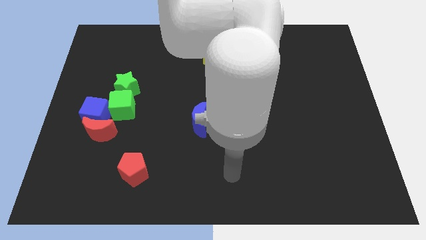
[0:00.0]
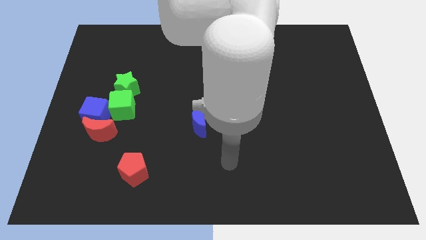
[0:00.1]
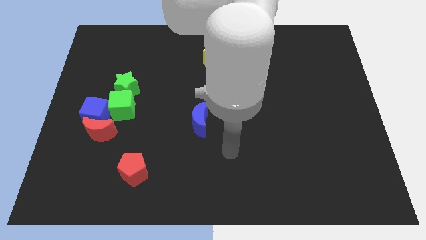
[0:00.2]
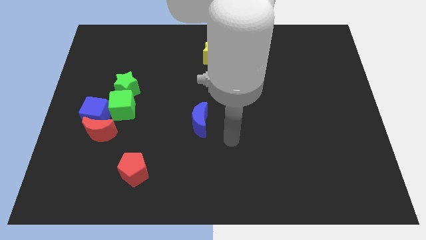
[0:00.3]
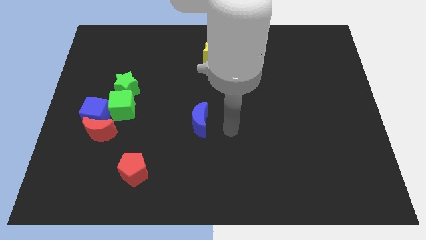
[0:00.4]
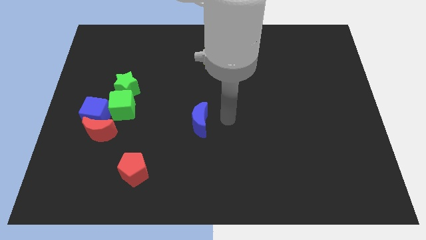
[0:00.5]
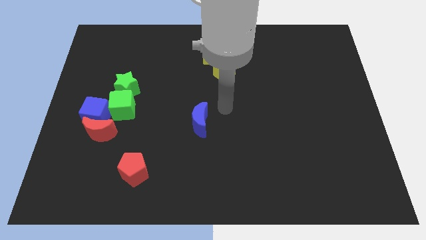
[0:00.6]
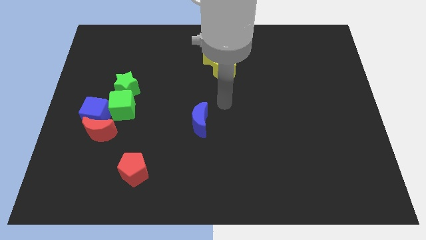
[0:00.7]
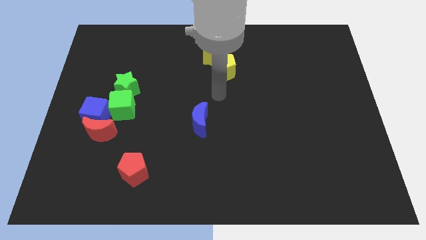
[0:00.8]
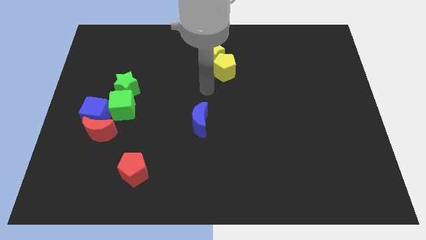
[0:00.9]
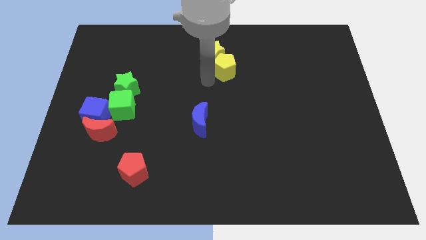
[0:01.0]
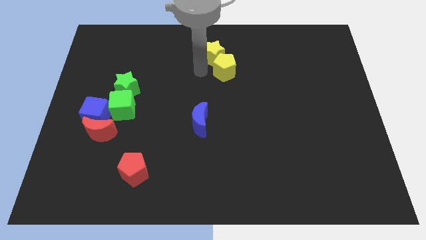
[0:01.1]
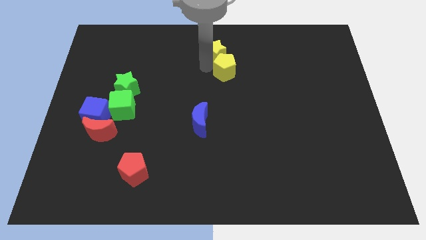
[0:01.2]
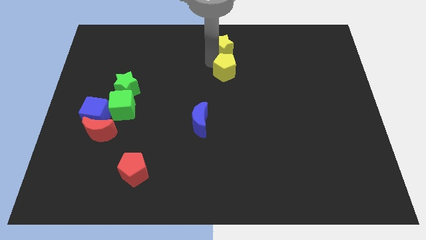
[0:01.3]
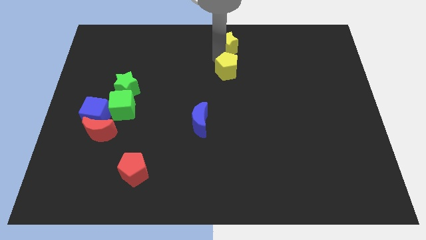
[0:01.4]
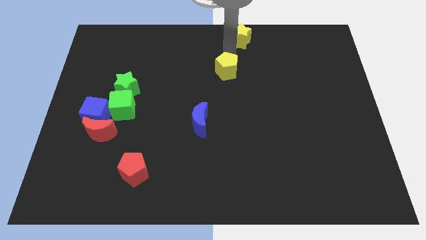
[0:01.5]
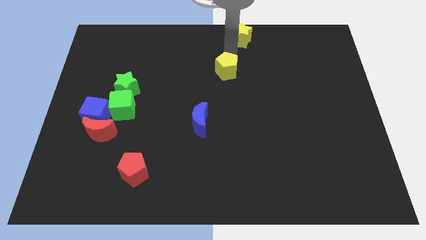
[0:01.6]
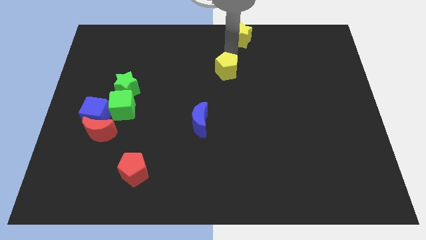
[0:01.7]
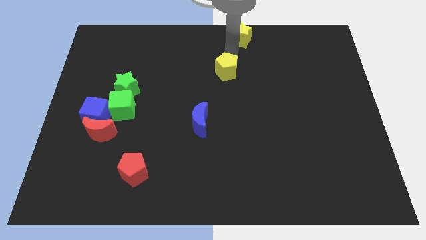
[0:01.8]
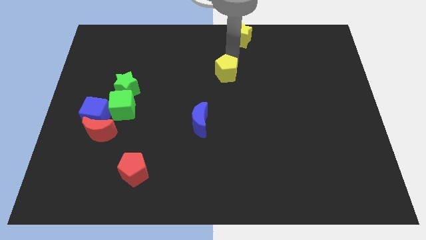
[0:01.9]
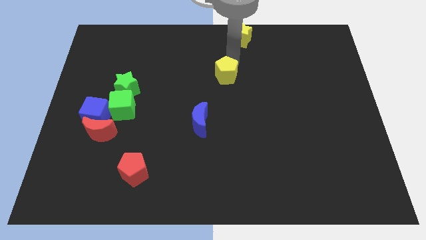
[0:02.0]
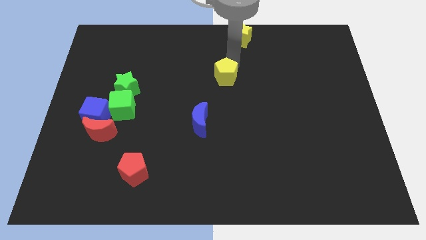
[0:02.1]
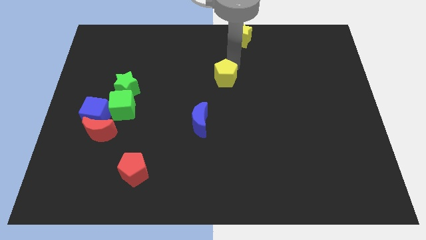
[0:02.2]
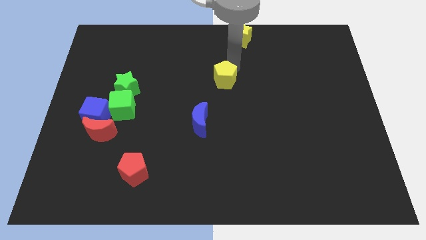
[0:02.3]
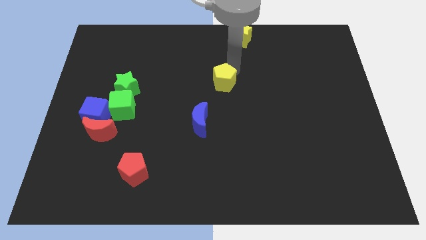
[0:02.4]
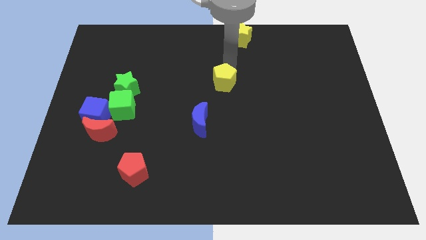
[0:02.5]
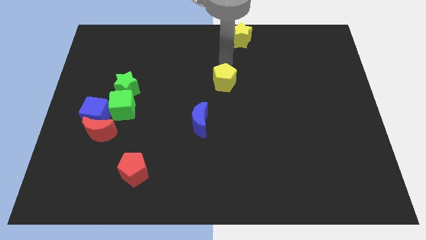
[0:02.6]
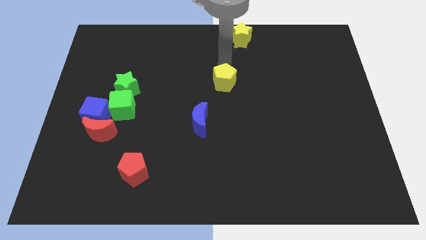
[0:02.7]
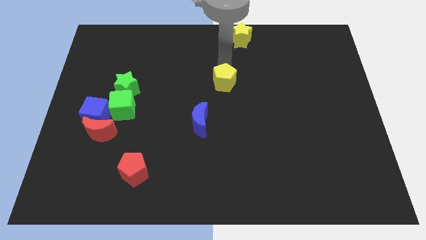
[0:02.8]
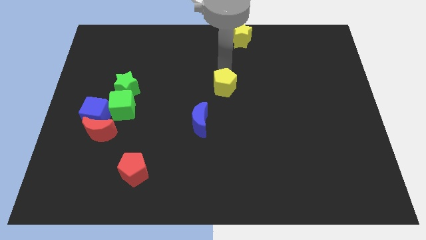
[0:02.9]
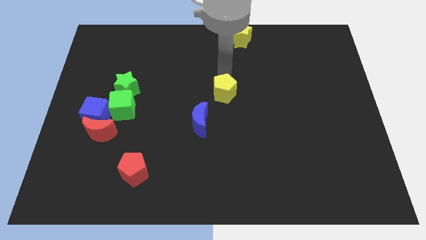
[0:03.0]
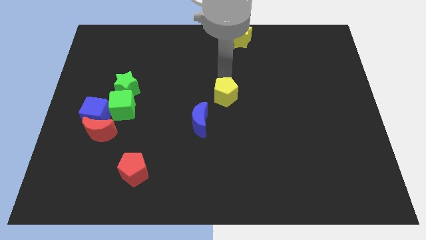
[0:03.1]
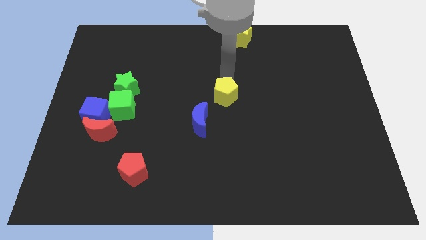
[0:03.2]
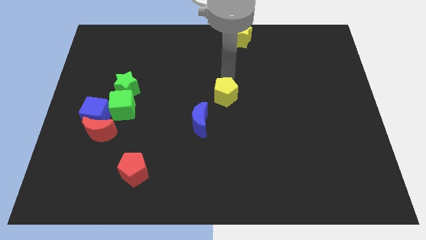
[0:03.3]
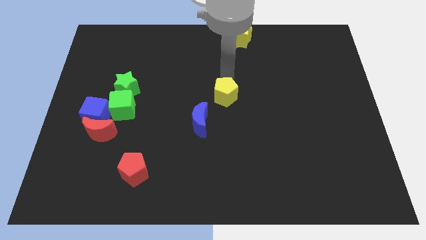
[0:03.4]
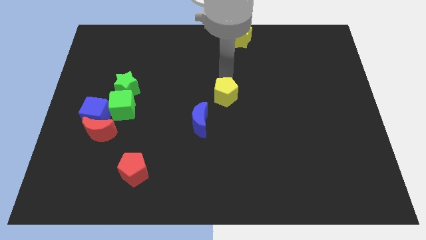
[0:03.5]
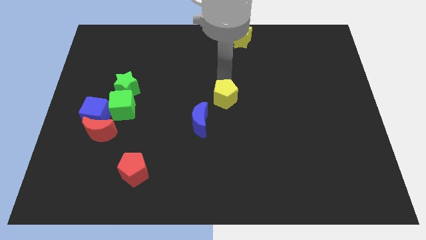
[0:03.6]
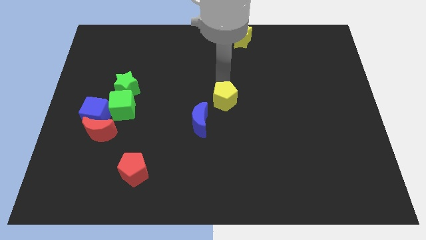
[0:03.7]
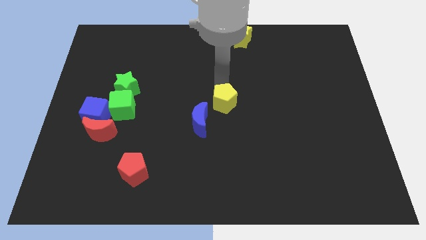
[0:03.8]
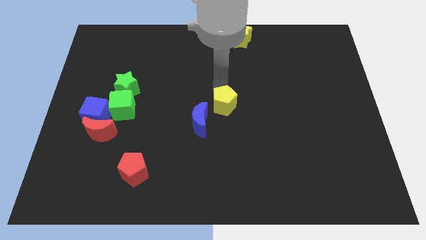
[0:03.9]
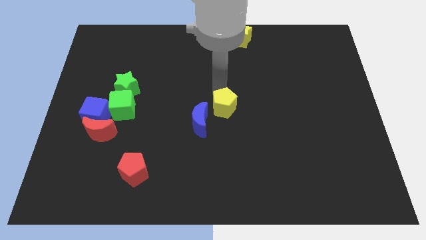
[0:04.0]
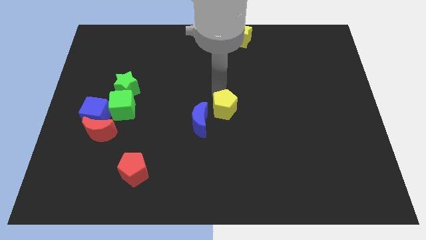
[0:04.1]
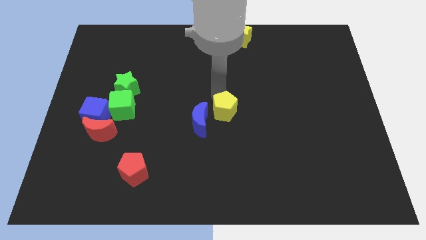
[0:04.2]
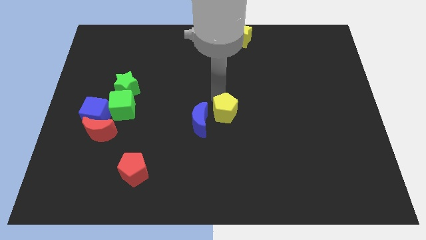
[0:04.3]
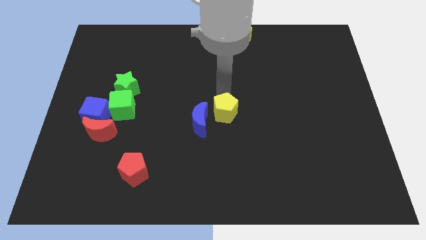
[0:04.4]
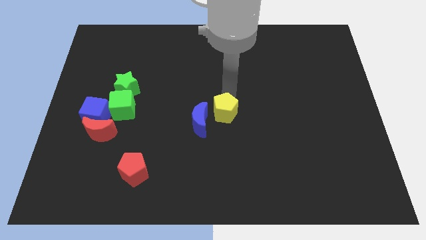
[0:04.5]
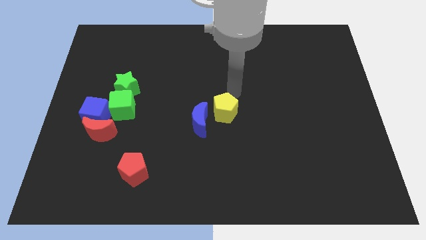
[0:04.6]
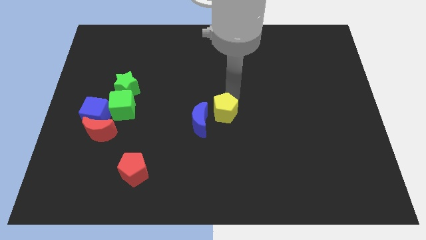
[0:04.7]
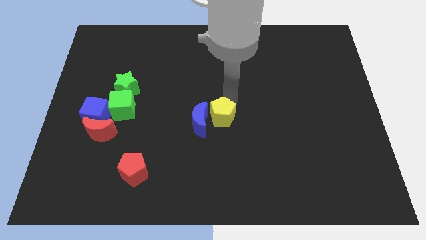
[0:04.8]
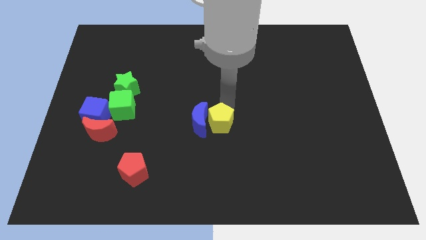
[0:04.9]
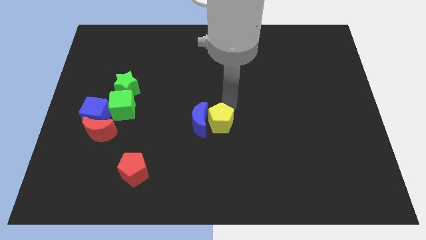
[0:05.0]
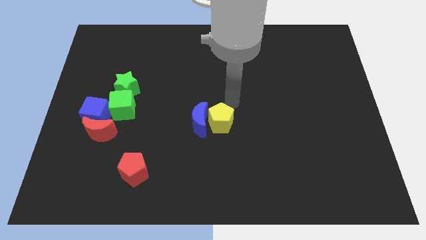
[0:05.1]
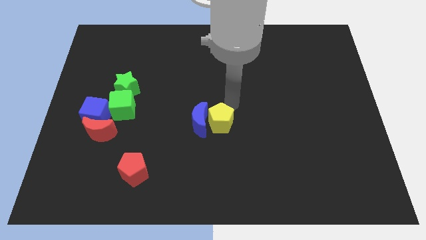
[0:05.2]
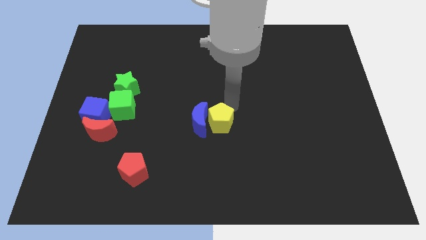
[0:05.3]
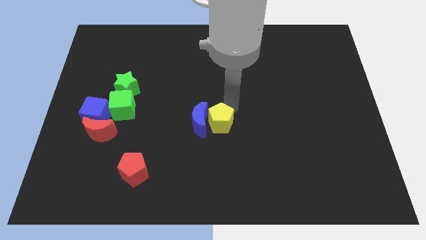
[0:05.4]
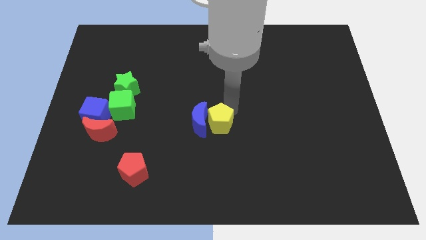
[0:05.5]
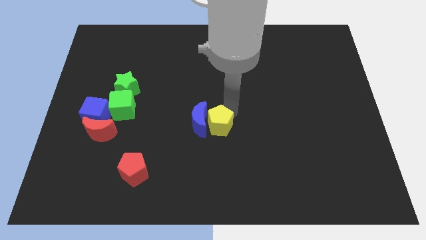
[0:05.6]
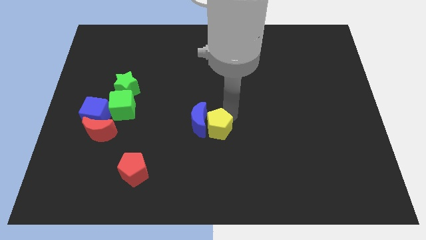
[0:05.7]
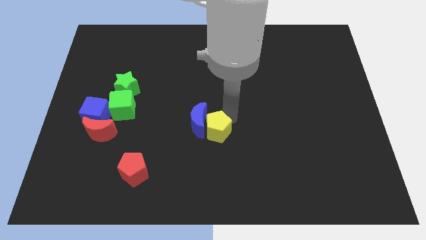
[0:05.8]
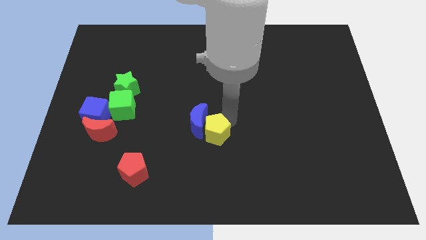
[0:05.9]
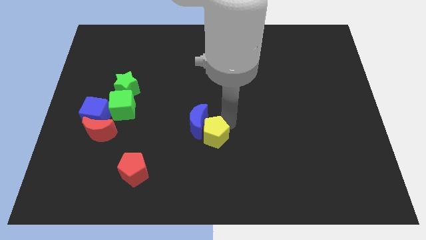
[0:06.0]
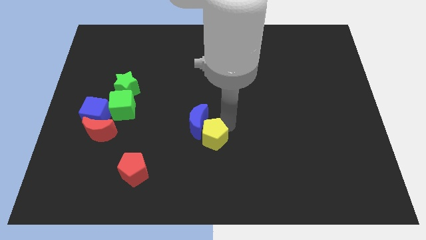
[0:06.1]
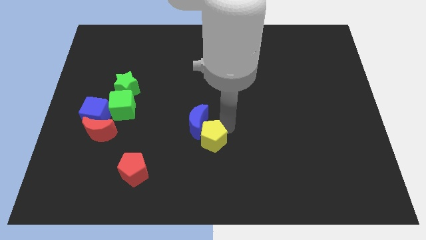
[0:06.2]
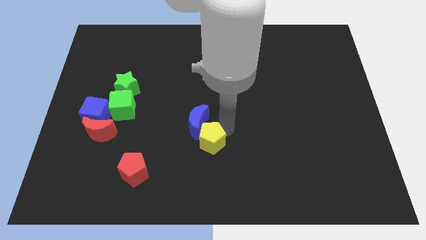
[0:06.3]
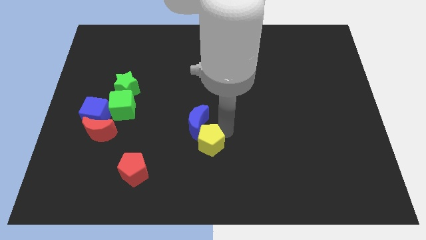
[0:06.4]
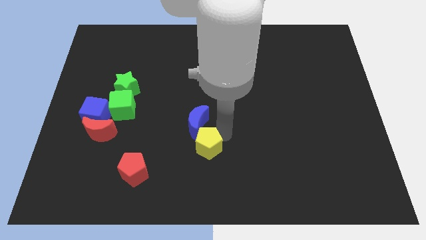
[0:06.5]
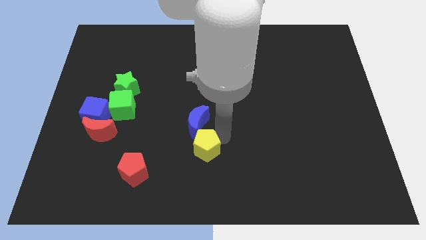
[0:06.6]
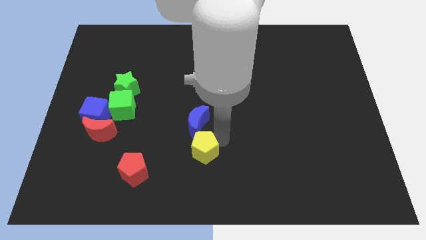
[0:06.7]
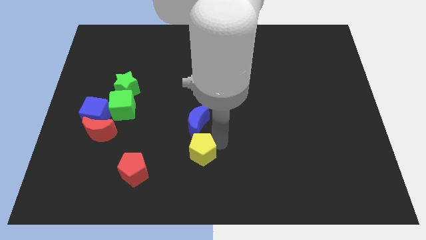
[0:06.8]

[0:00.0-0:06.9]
move the yellow pentagon right of the red pentagon
